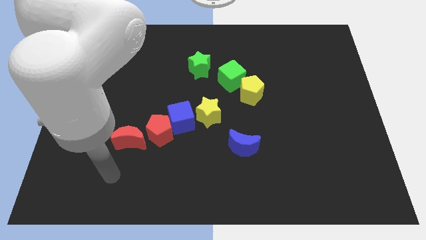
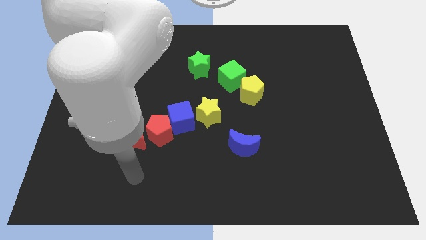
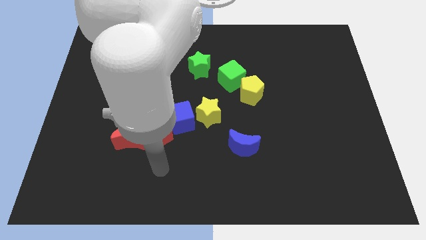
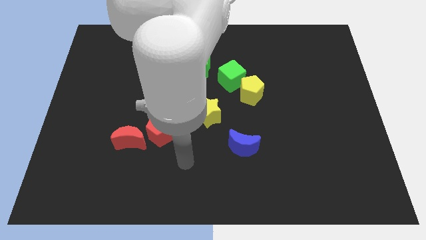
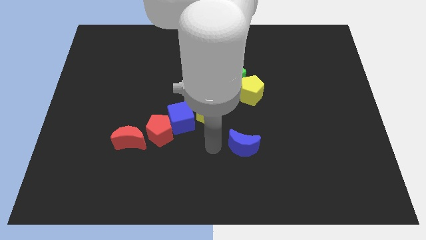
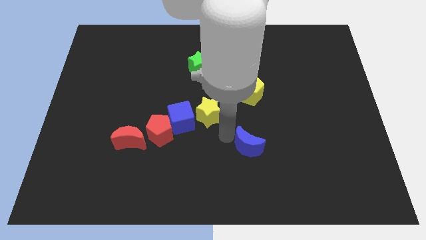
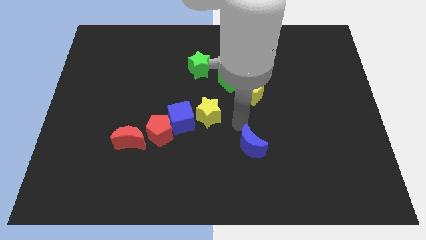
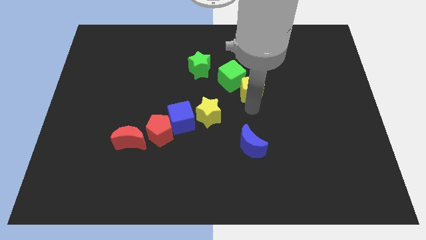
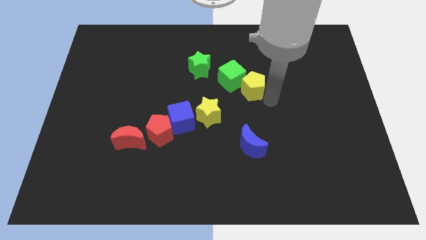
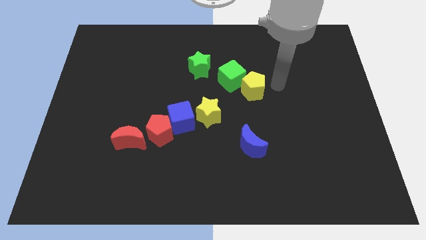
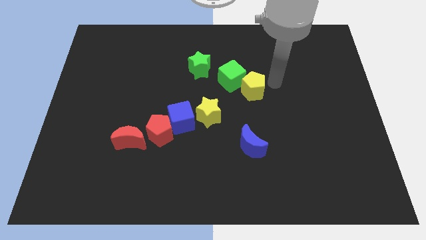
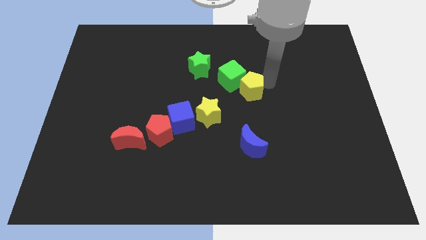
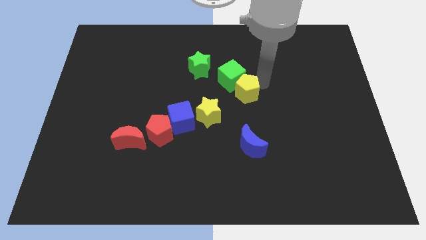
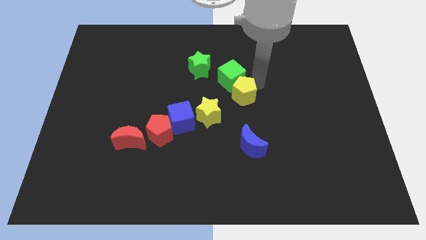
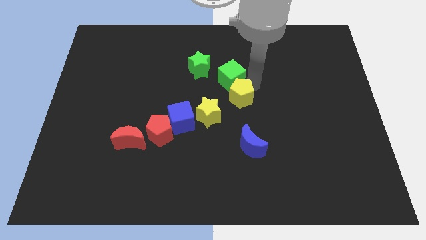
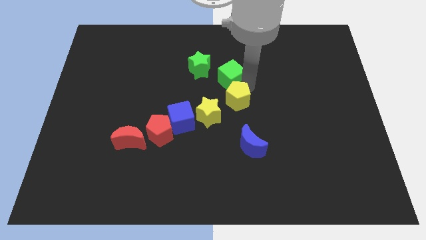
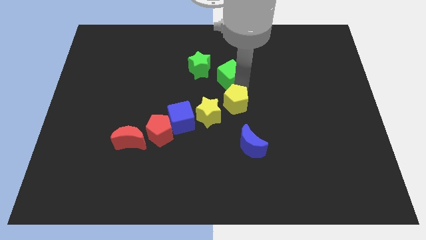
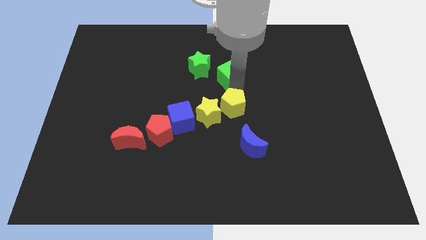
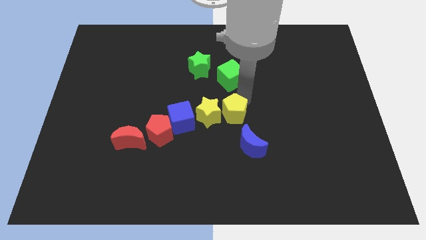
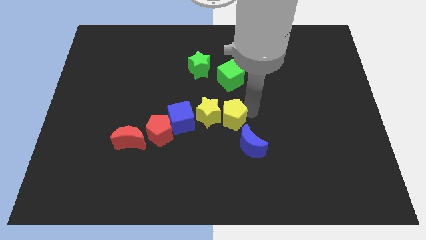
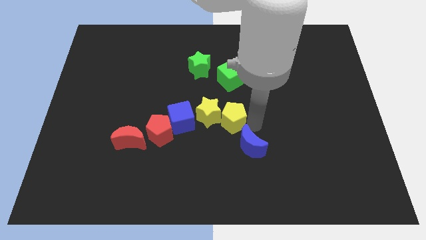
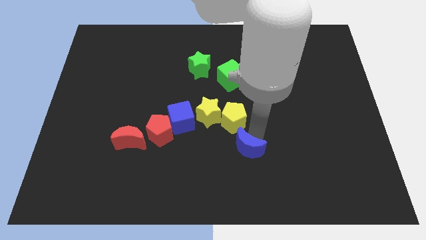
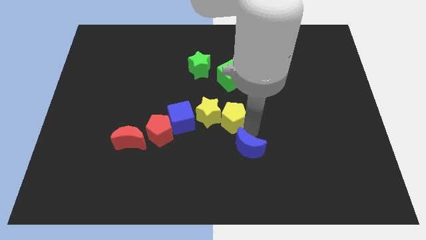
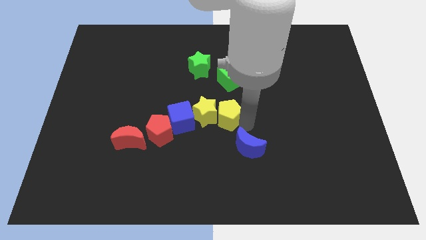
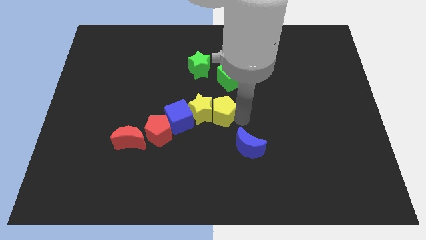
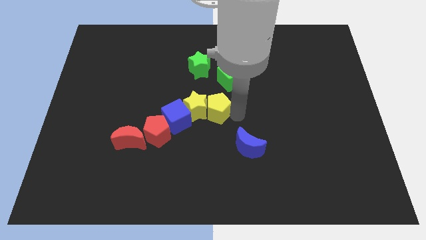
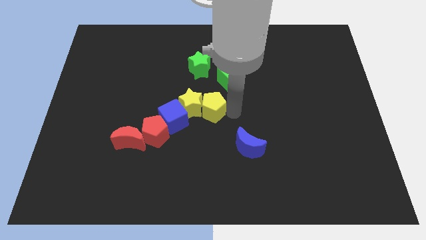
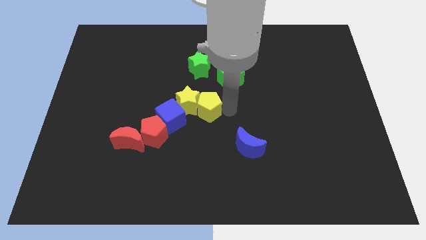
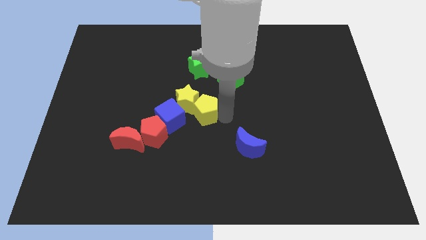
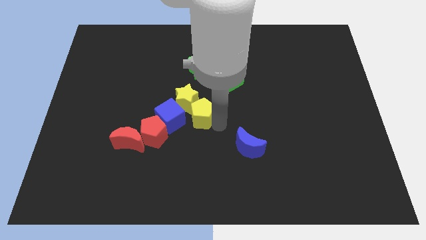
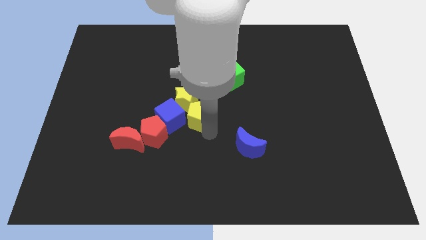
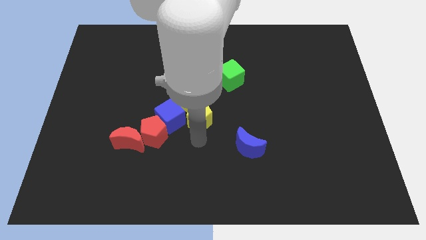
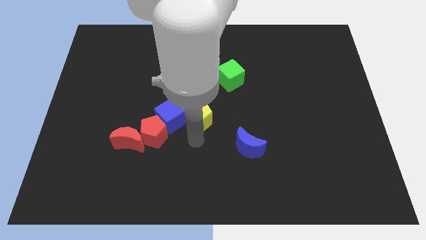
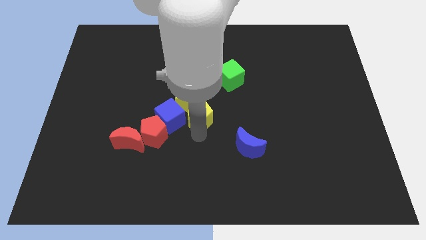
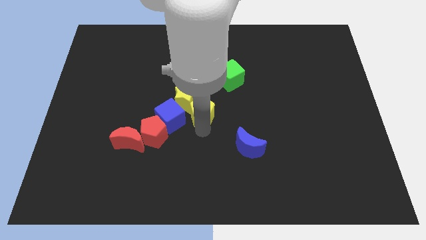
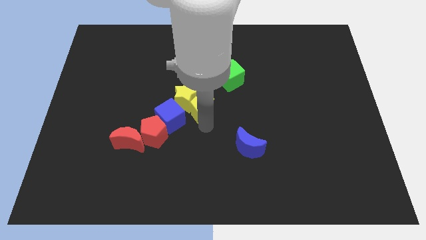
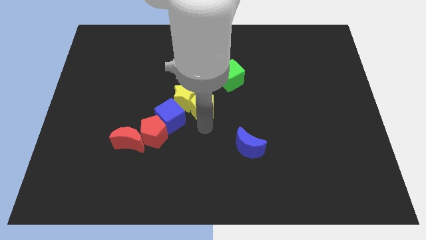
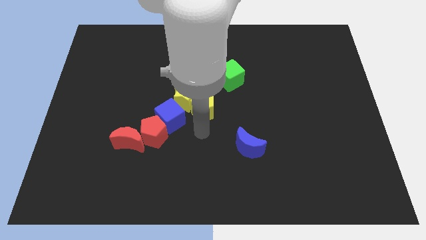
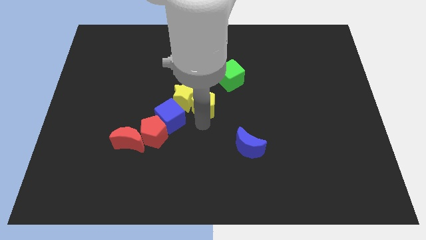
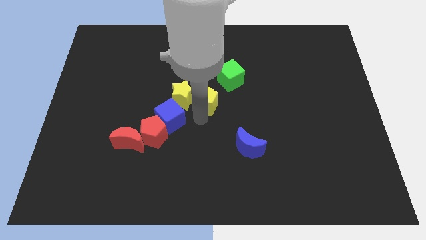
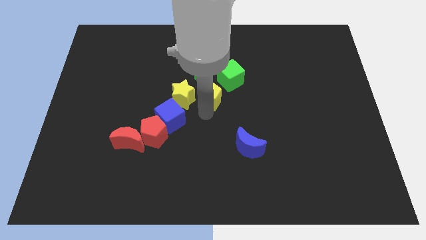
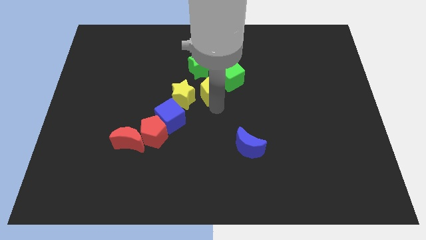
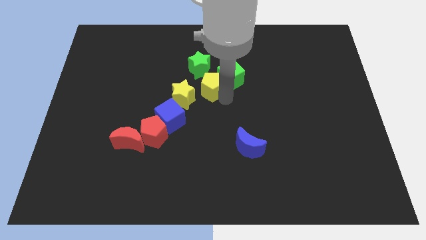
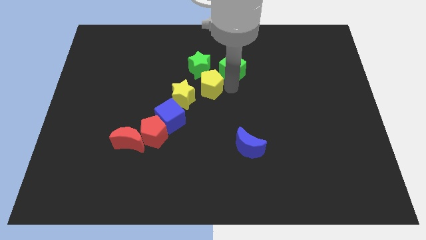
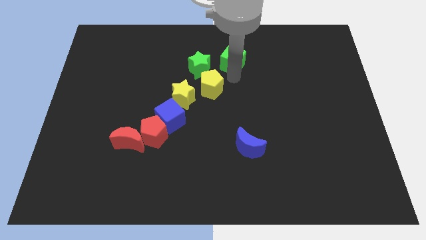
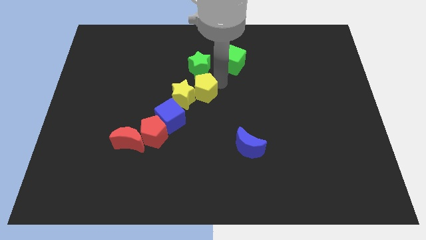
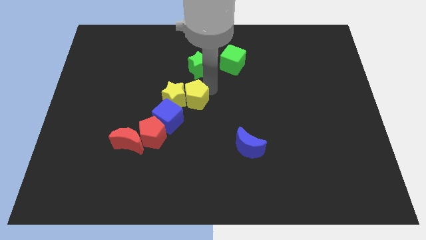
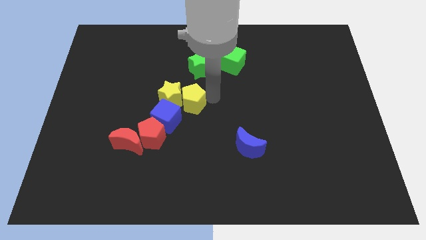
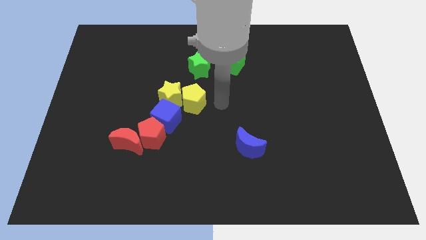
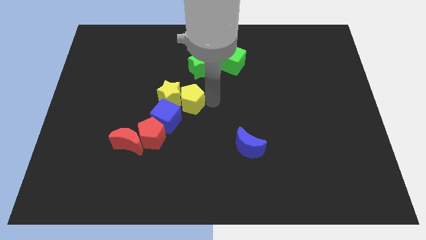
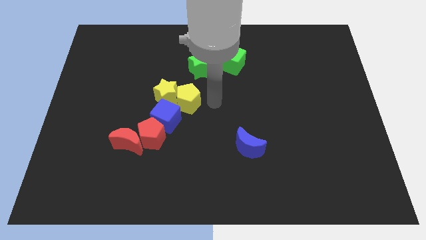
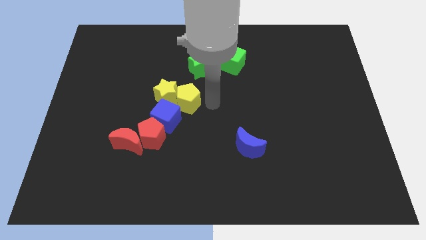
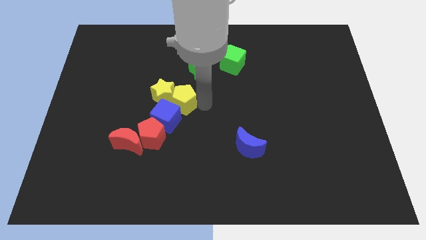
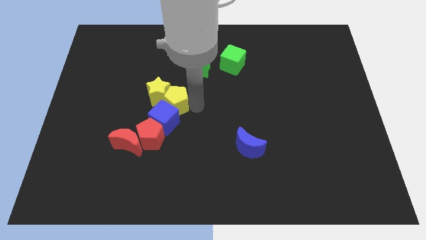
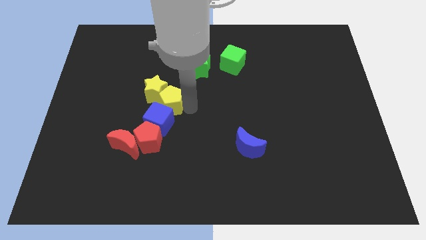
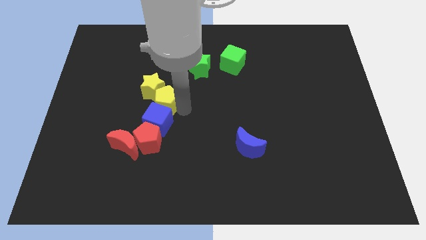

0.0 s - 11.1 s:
move the yellow pentagon left

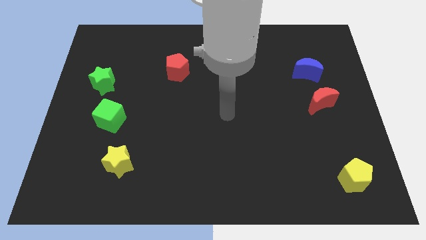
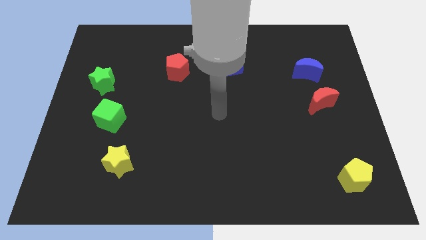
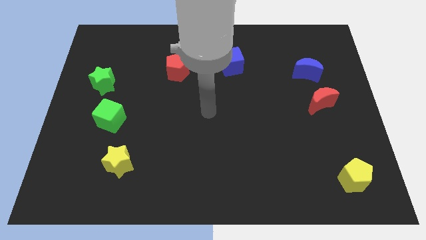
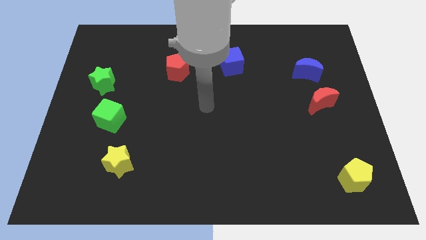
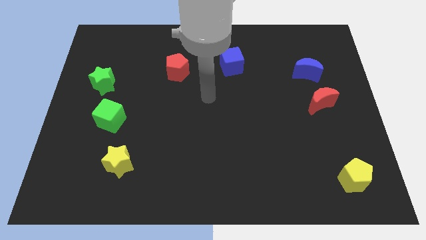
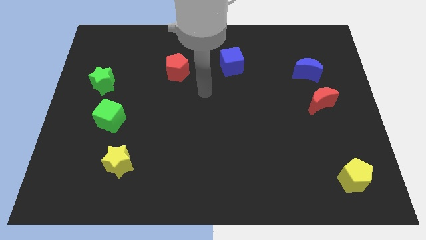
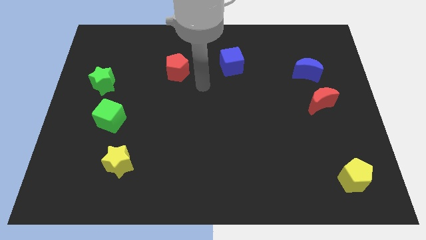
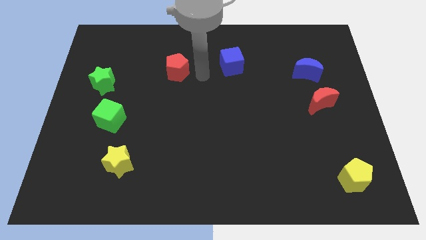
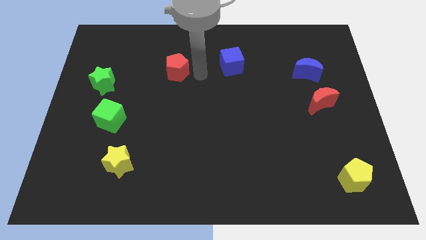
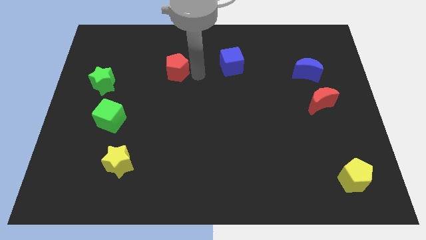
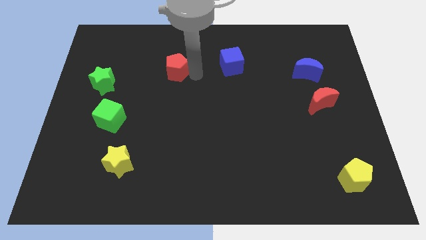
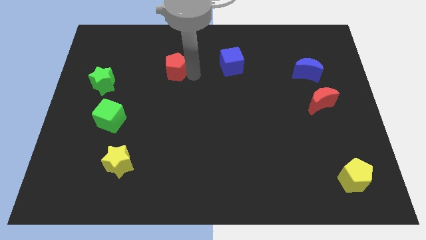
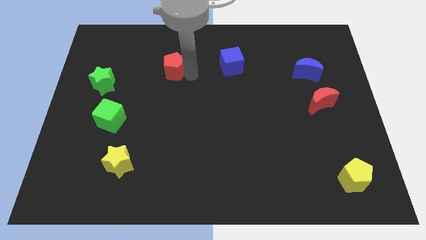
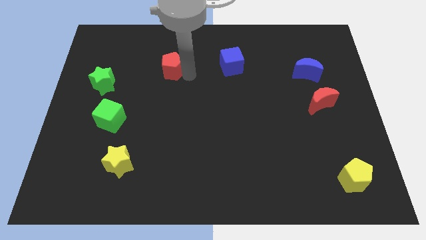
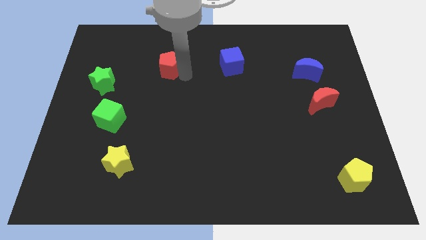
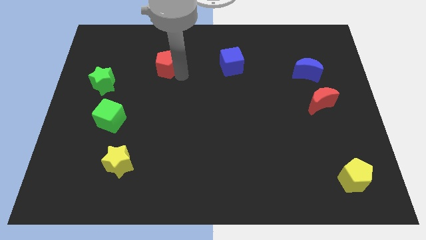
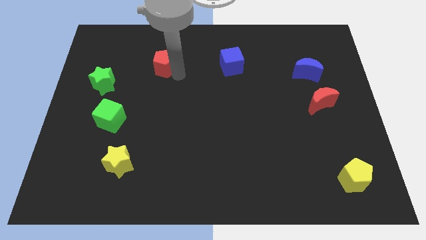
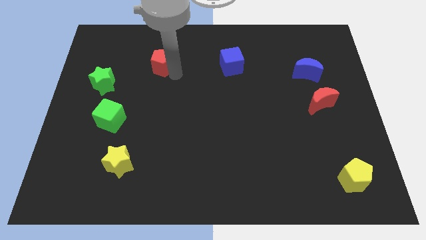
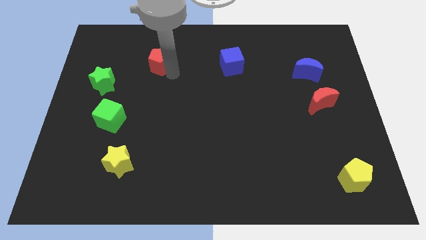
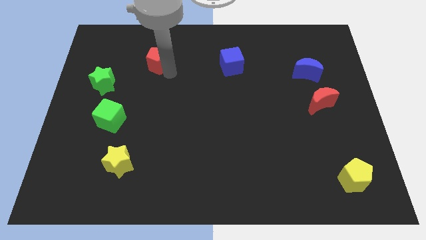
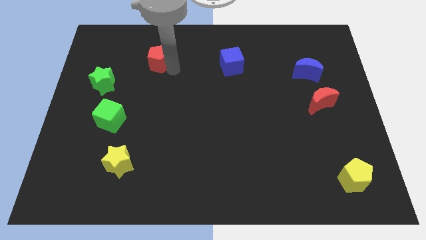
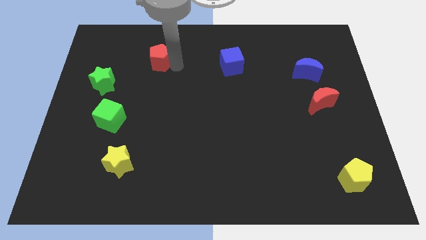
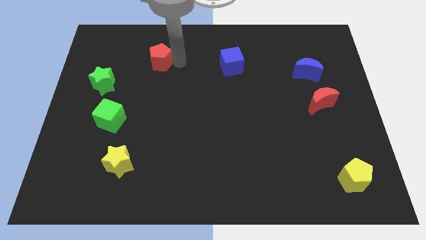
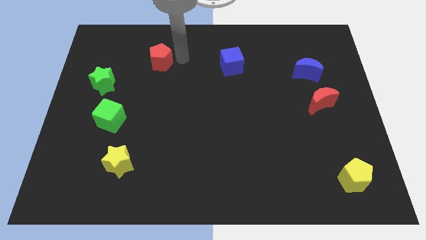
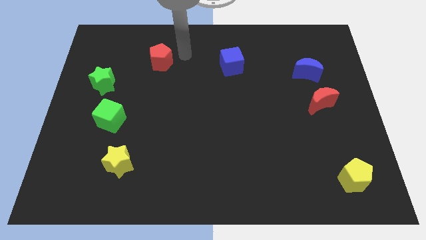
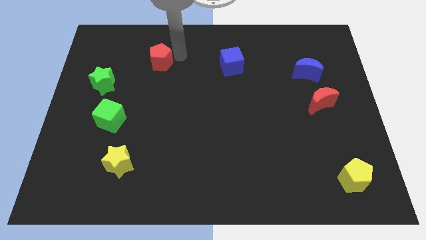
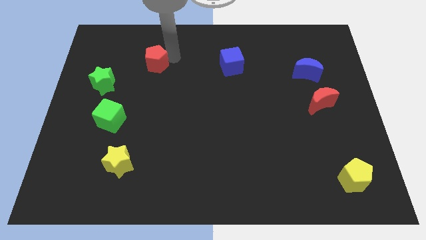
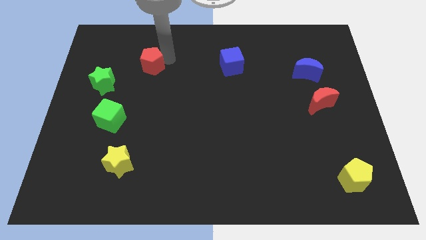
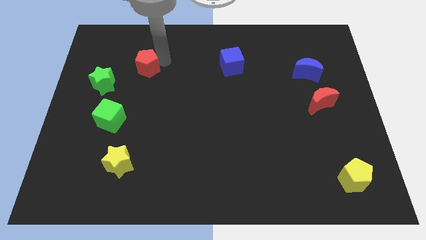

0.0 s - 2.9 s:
slide the red pentagon left a little bit
